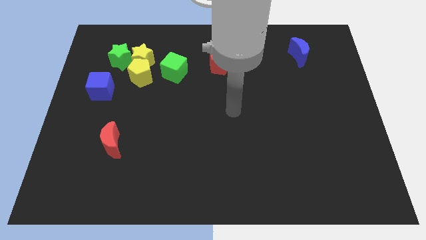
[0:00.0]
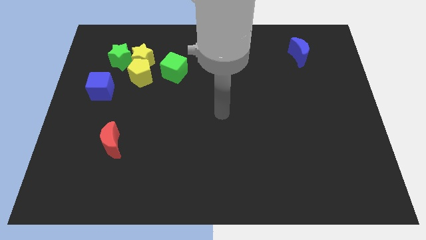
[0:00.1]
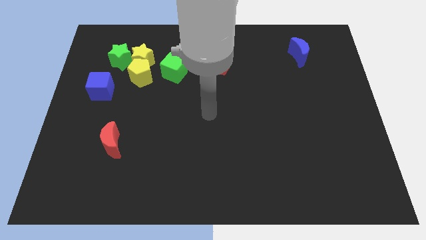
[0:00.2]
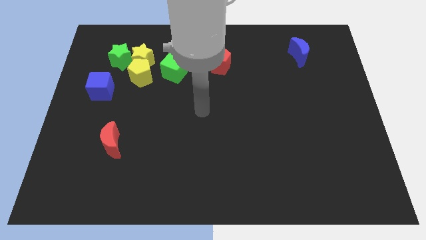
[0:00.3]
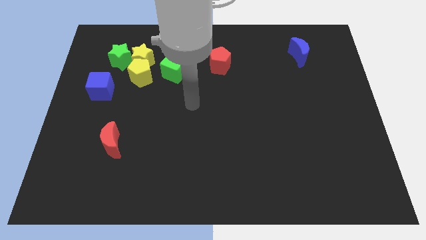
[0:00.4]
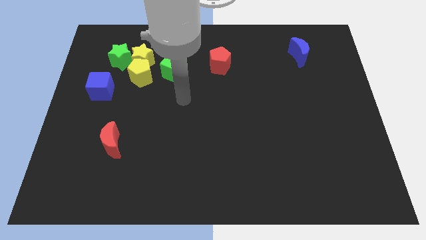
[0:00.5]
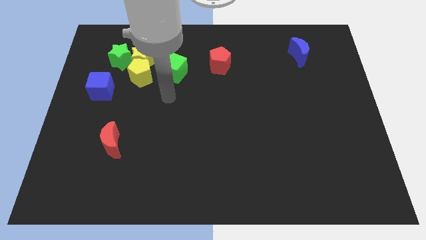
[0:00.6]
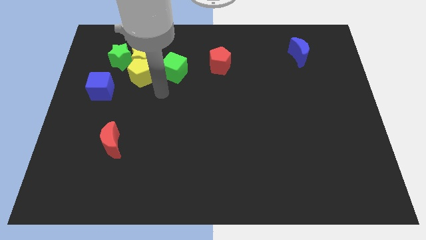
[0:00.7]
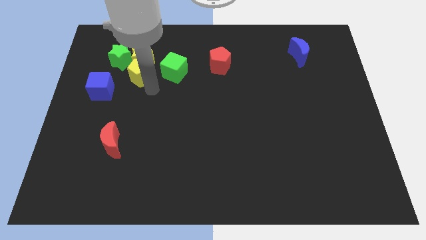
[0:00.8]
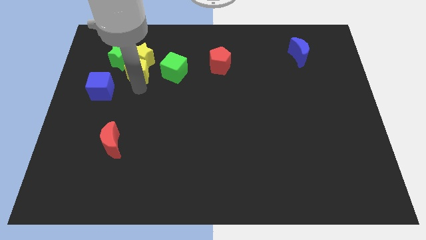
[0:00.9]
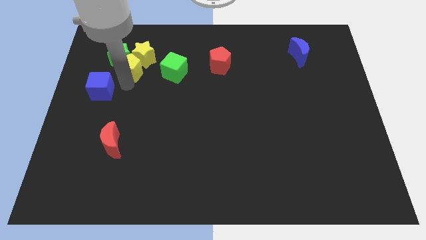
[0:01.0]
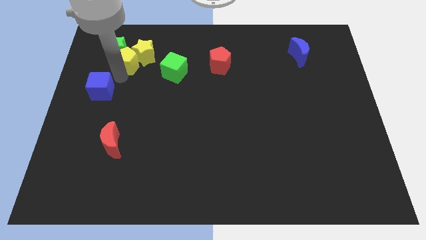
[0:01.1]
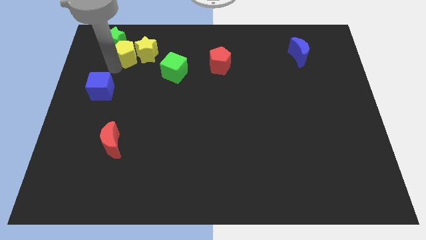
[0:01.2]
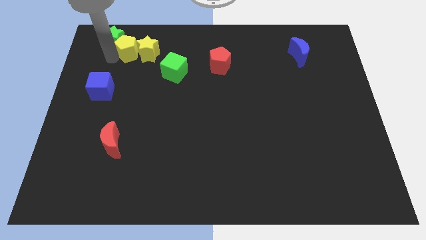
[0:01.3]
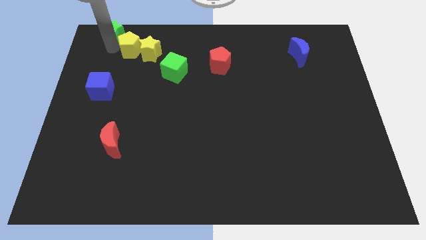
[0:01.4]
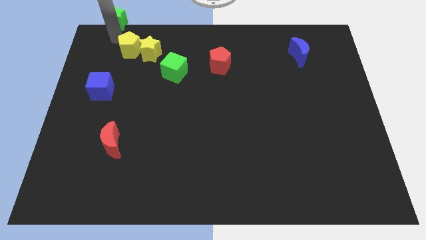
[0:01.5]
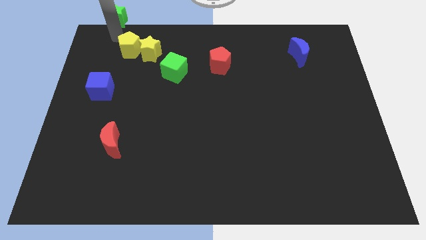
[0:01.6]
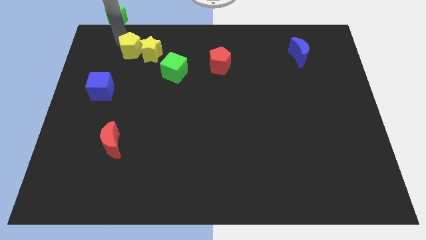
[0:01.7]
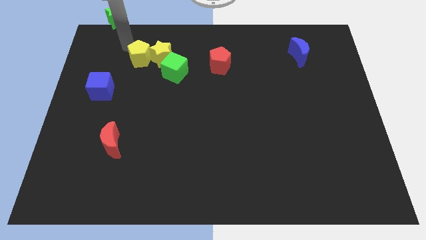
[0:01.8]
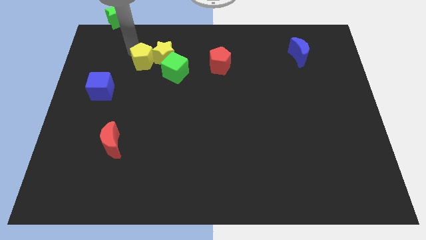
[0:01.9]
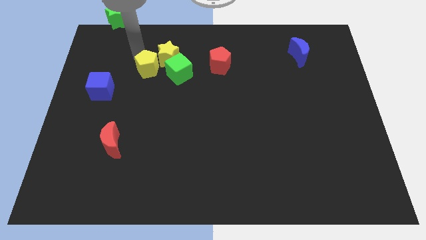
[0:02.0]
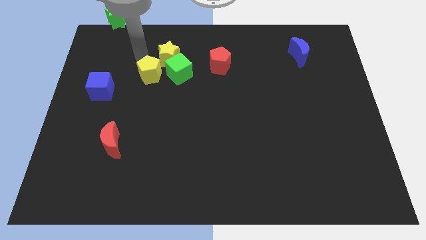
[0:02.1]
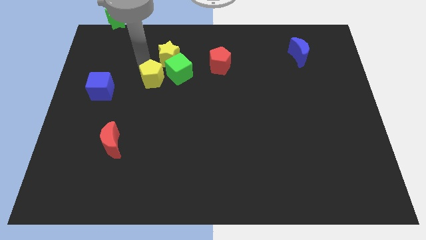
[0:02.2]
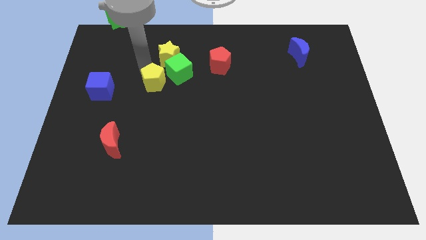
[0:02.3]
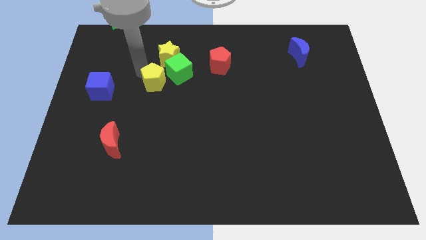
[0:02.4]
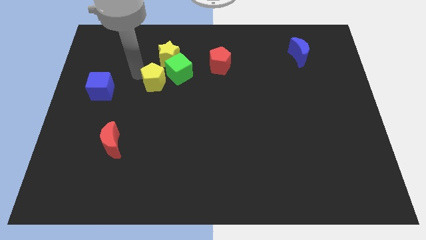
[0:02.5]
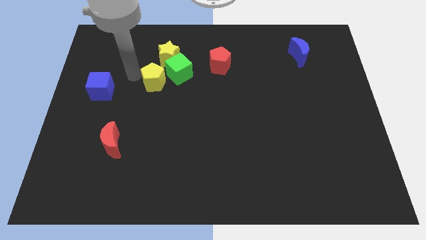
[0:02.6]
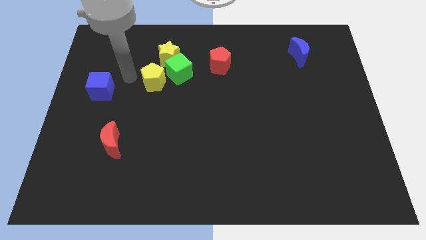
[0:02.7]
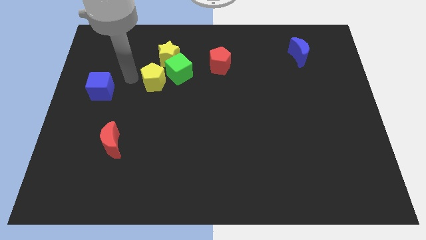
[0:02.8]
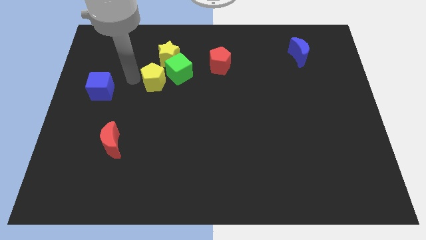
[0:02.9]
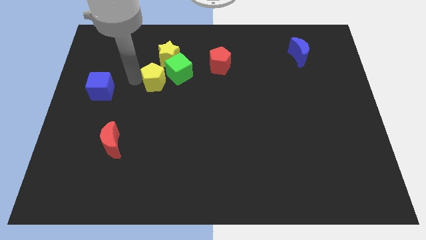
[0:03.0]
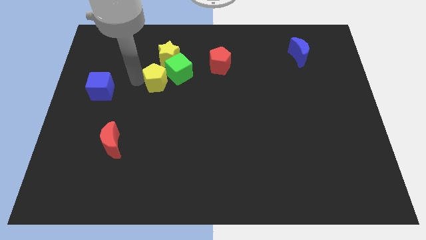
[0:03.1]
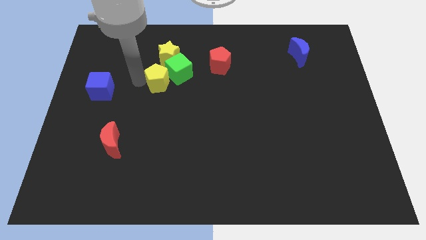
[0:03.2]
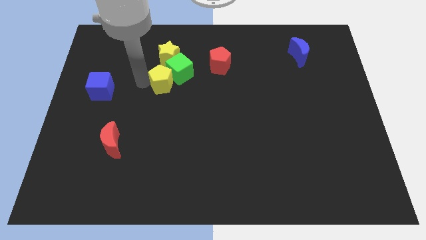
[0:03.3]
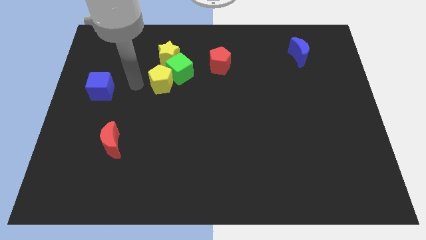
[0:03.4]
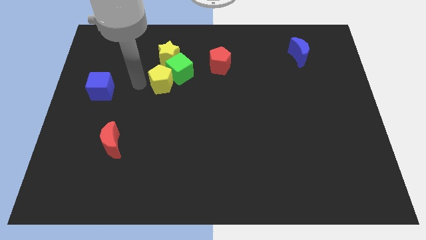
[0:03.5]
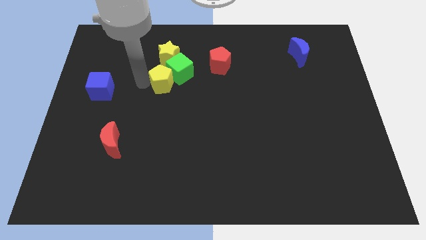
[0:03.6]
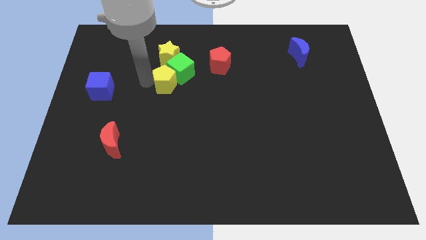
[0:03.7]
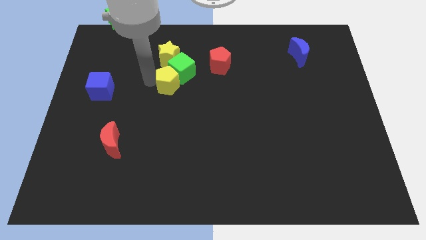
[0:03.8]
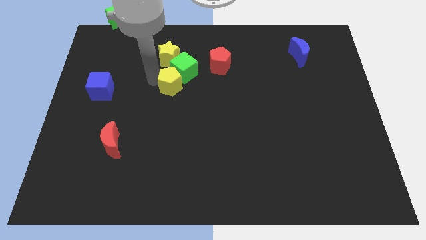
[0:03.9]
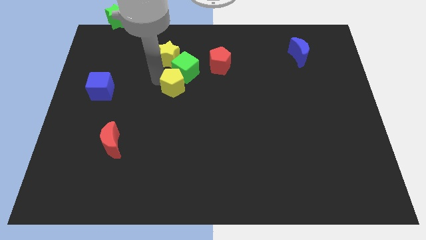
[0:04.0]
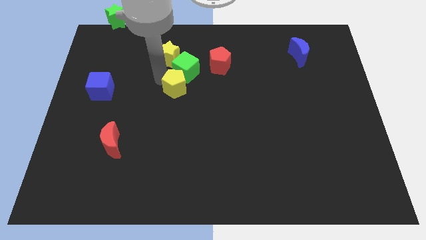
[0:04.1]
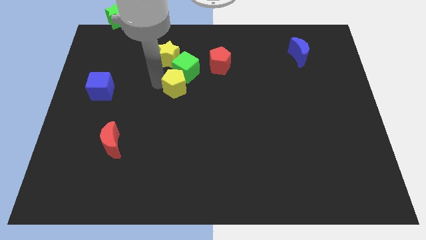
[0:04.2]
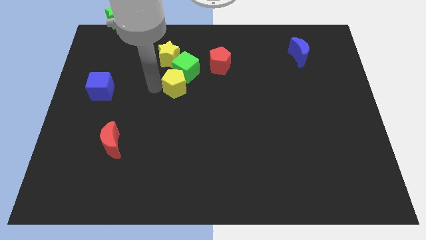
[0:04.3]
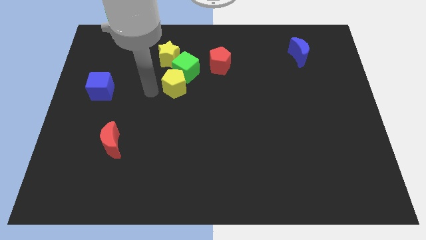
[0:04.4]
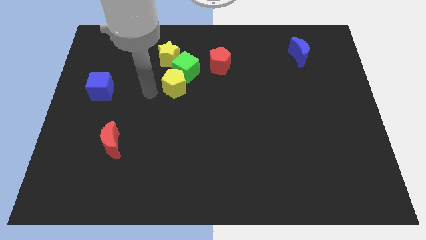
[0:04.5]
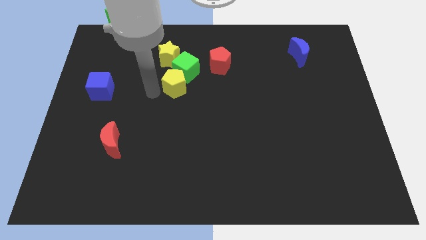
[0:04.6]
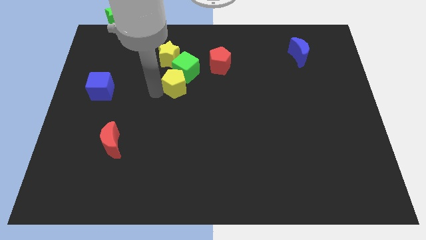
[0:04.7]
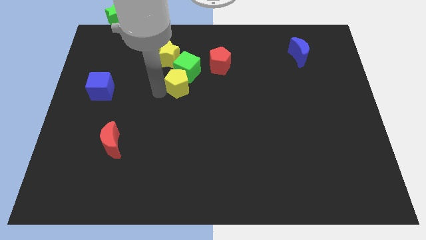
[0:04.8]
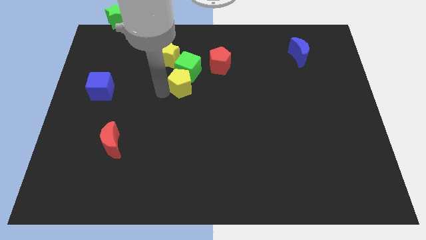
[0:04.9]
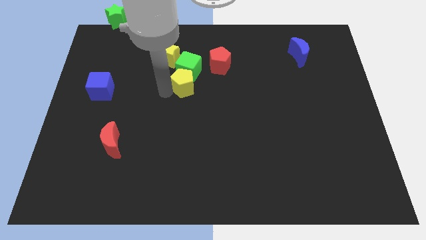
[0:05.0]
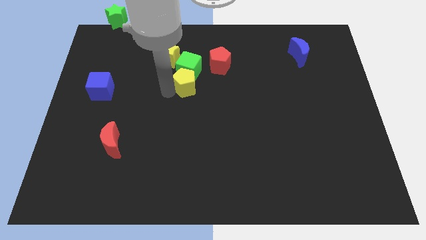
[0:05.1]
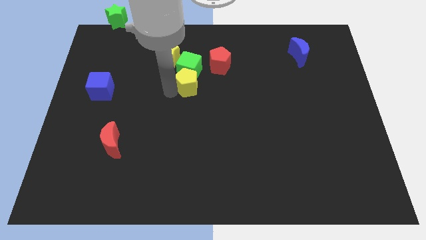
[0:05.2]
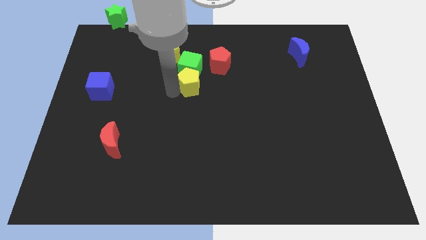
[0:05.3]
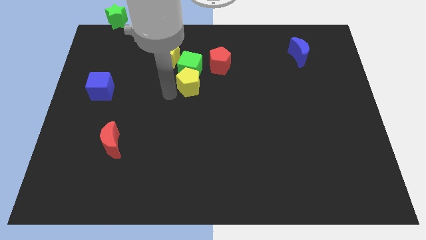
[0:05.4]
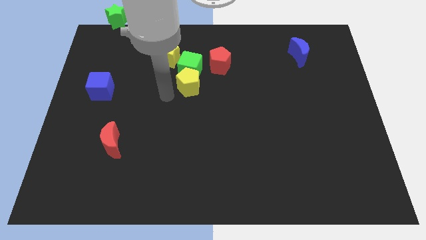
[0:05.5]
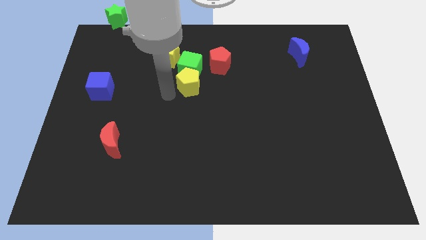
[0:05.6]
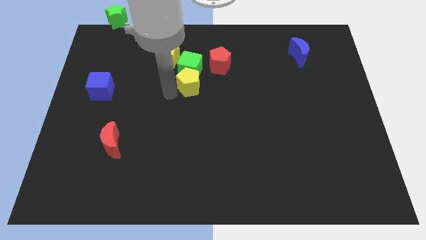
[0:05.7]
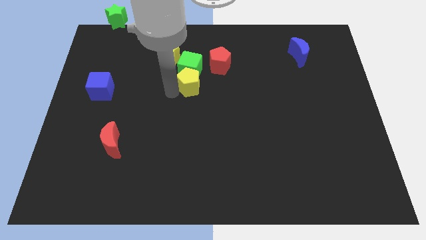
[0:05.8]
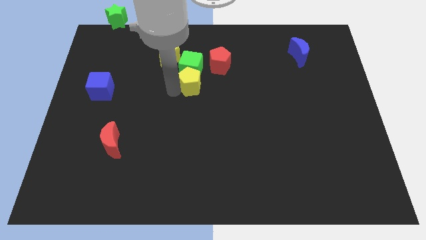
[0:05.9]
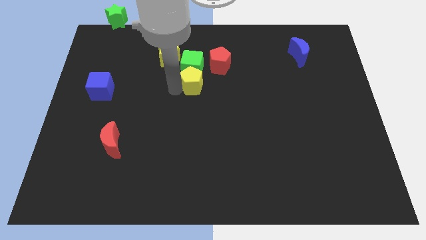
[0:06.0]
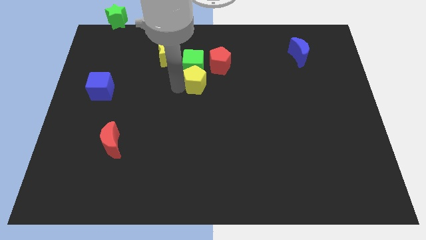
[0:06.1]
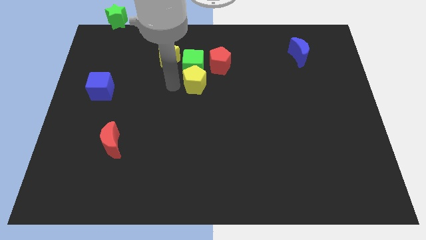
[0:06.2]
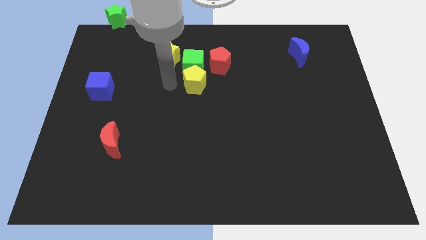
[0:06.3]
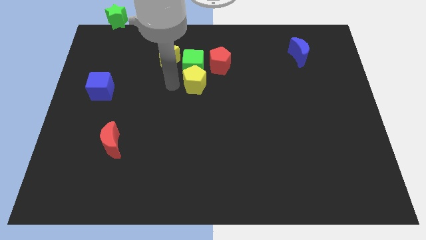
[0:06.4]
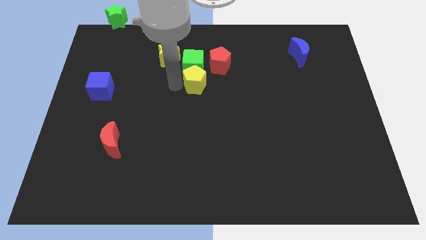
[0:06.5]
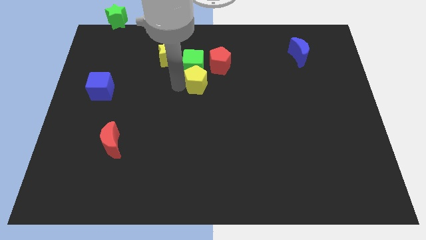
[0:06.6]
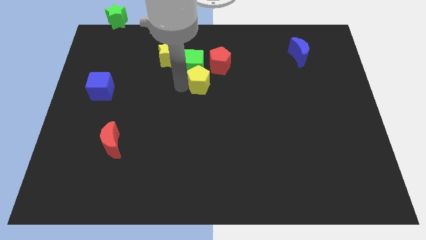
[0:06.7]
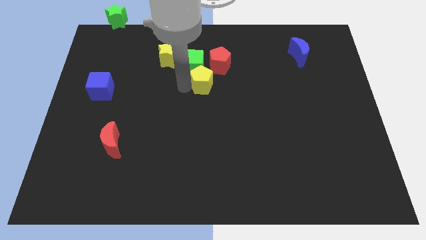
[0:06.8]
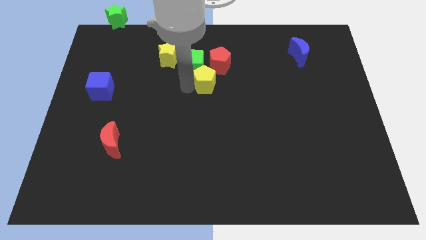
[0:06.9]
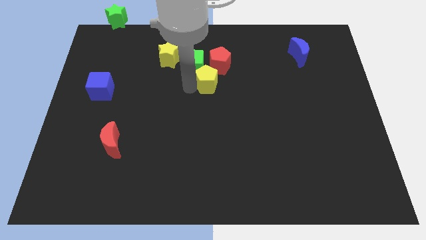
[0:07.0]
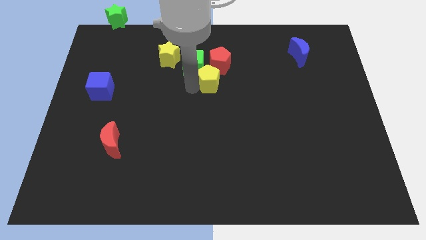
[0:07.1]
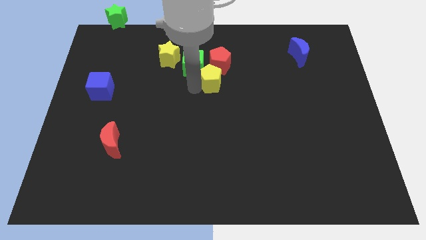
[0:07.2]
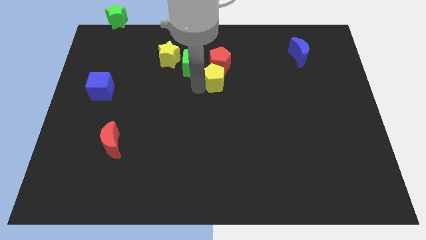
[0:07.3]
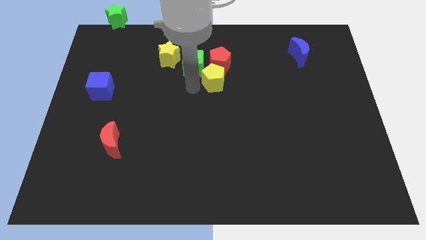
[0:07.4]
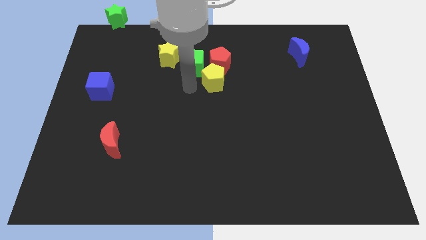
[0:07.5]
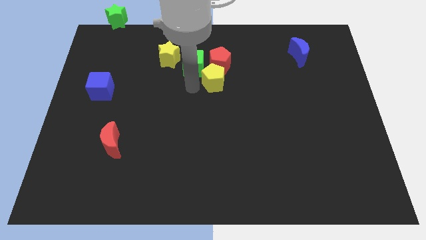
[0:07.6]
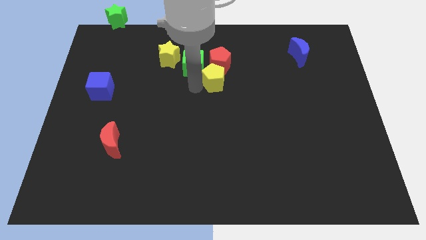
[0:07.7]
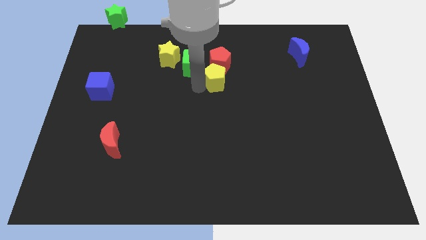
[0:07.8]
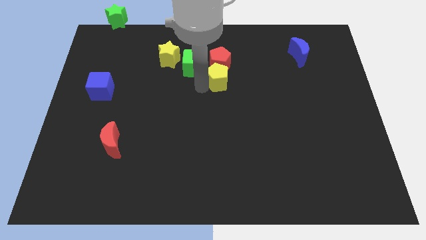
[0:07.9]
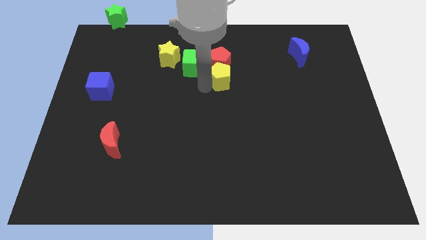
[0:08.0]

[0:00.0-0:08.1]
move the yellow pentagon to the right
